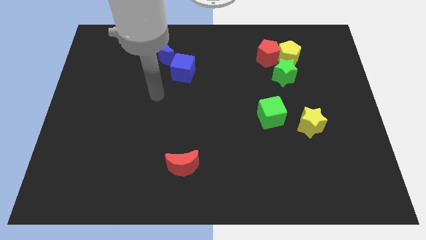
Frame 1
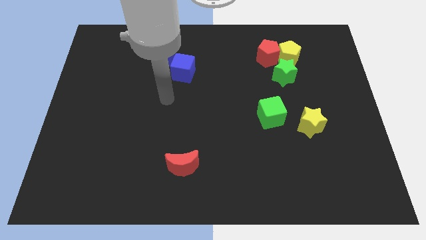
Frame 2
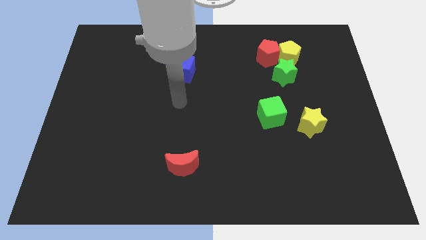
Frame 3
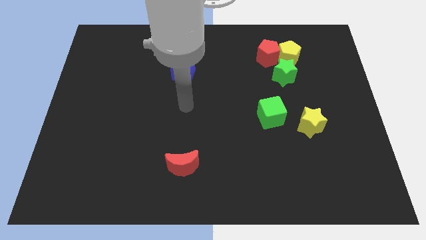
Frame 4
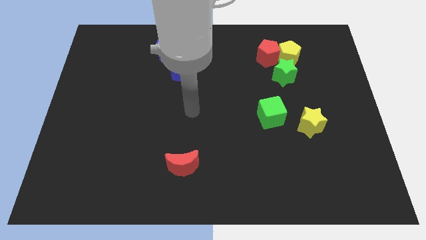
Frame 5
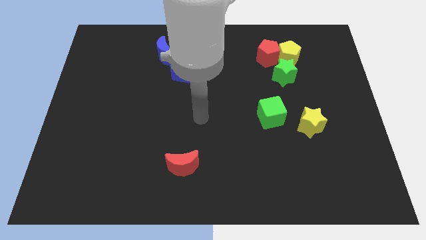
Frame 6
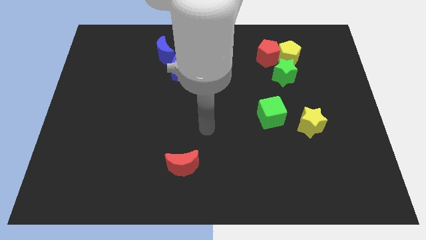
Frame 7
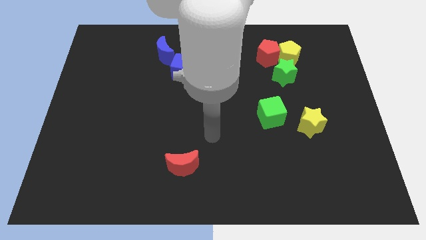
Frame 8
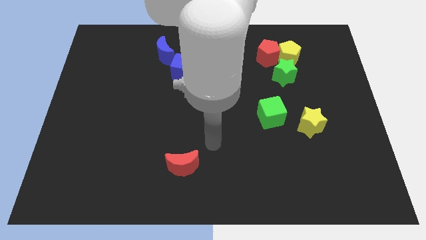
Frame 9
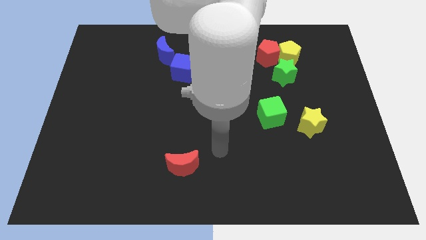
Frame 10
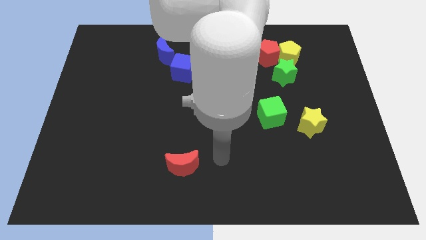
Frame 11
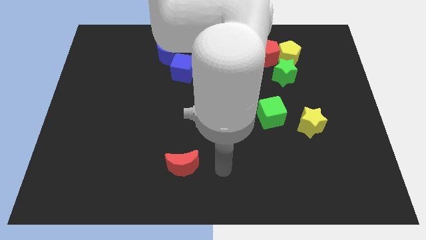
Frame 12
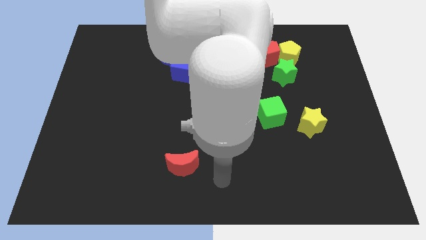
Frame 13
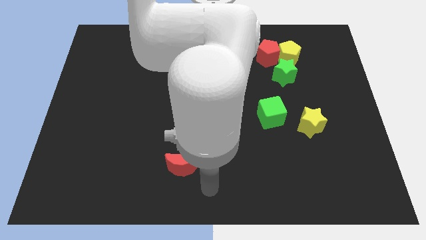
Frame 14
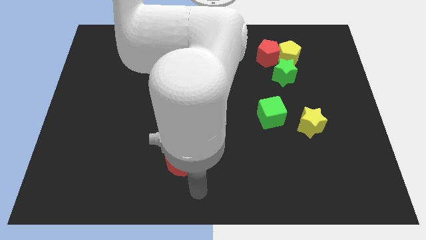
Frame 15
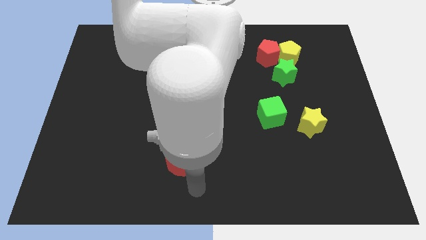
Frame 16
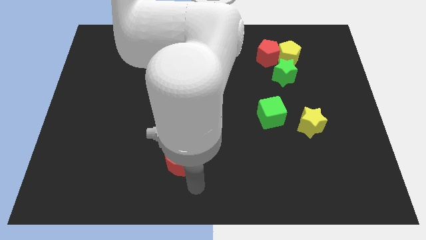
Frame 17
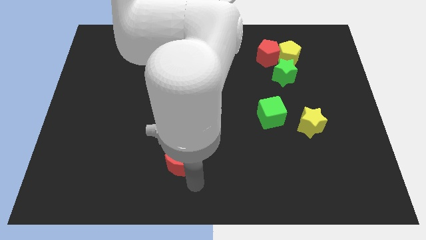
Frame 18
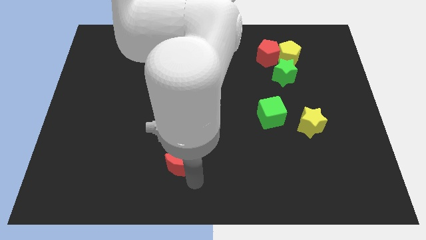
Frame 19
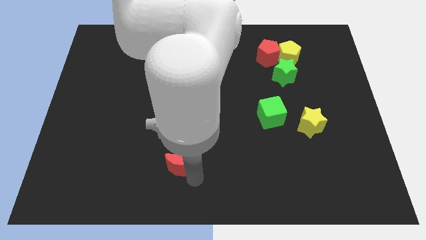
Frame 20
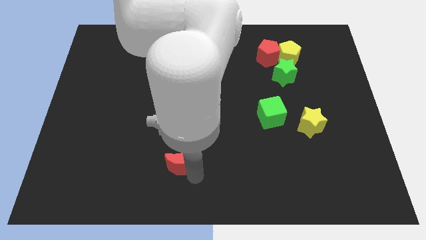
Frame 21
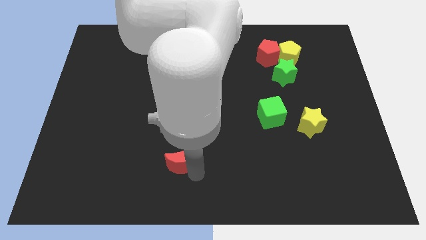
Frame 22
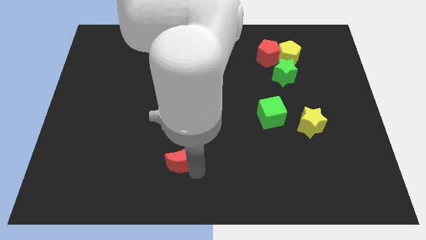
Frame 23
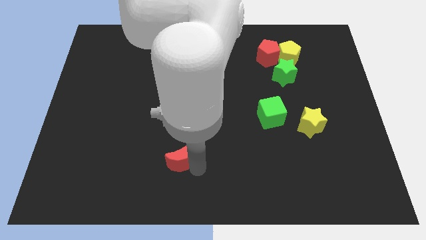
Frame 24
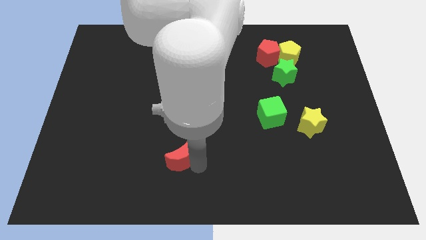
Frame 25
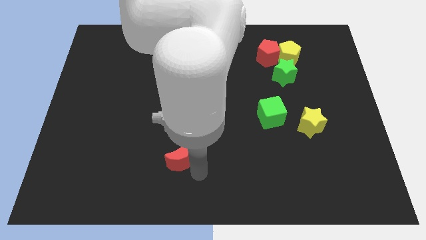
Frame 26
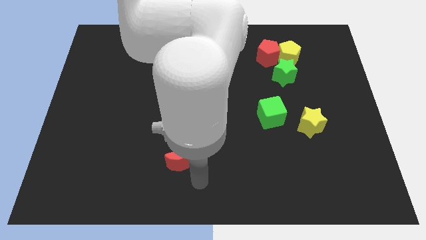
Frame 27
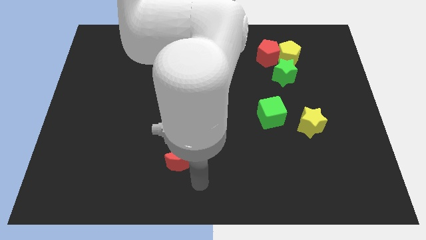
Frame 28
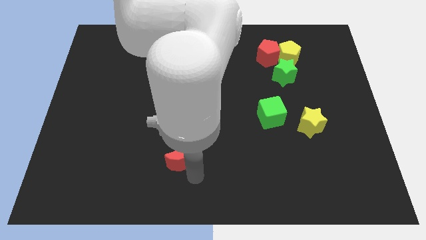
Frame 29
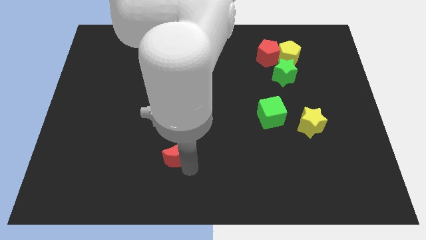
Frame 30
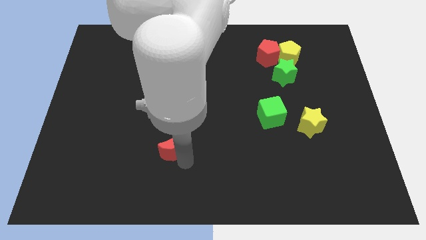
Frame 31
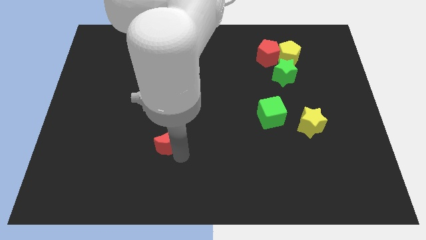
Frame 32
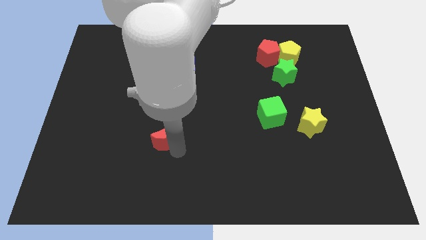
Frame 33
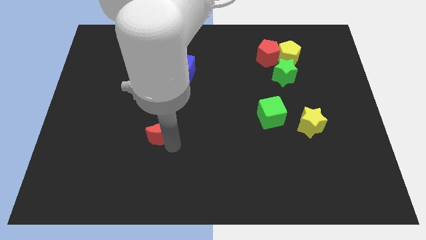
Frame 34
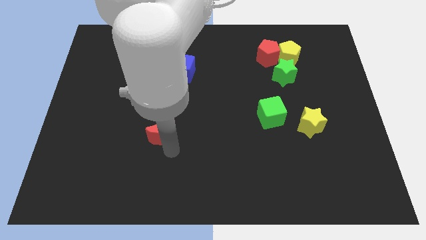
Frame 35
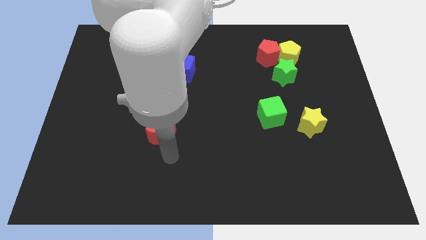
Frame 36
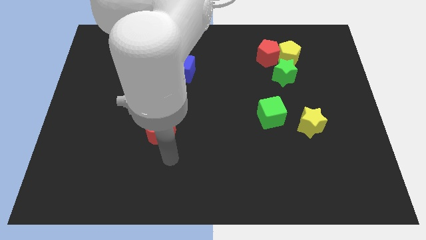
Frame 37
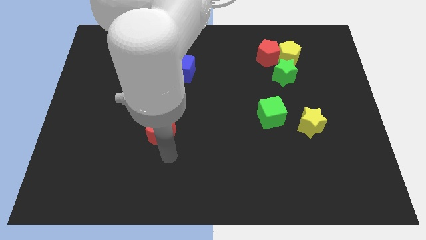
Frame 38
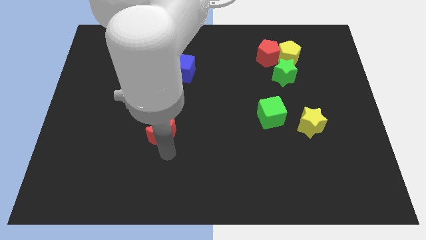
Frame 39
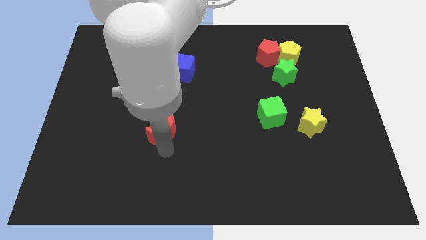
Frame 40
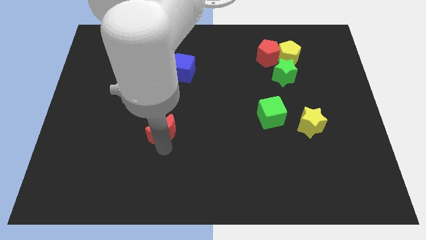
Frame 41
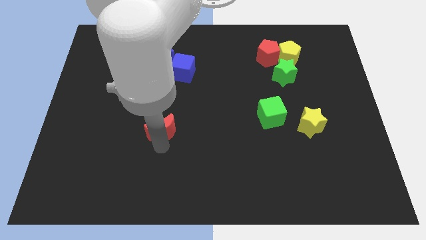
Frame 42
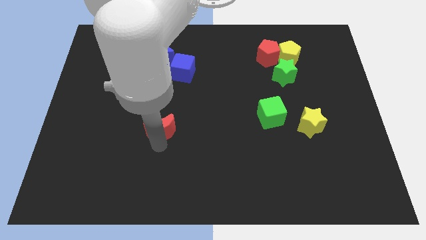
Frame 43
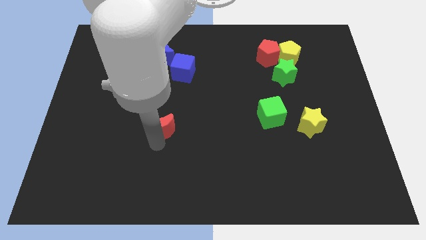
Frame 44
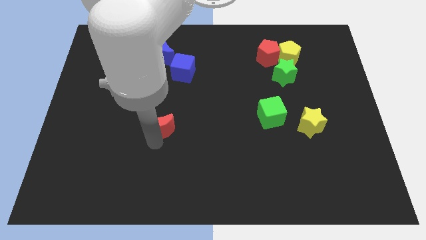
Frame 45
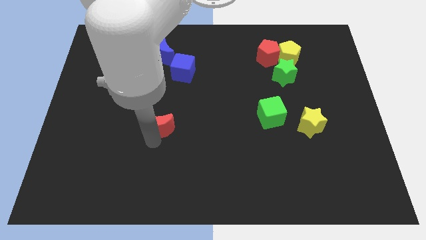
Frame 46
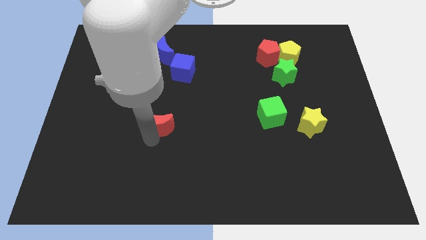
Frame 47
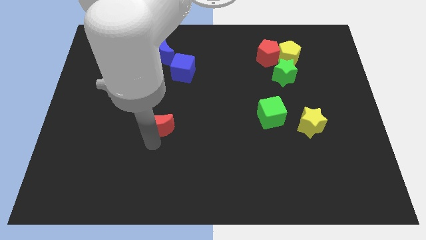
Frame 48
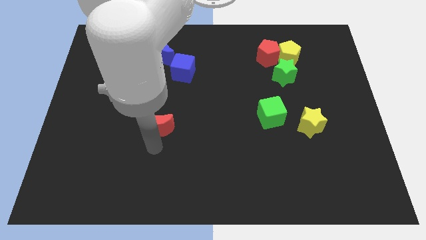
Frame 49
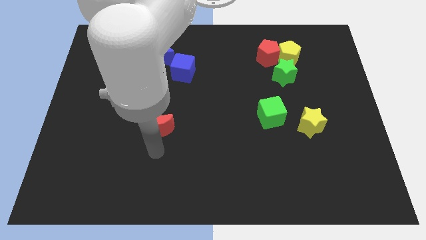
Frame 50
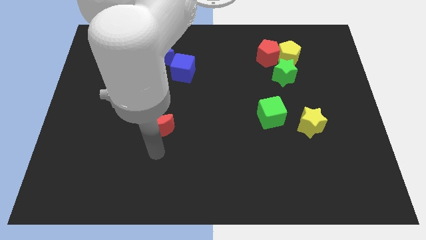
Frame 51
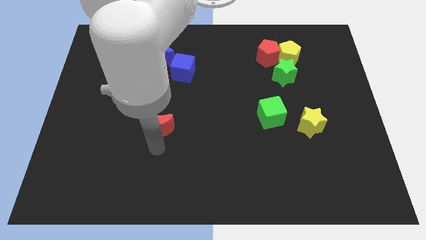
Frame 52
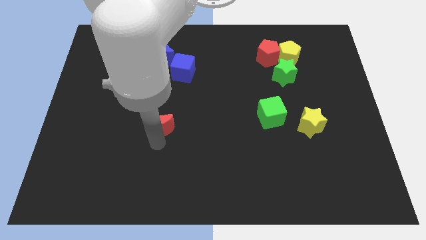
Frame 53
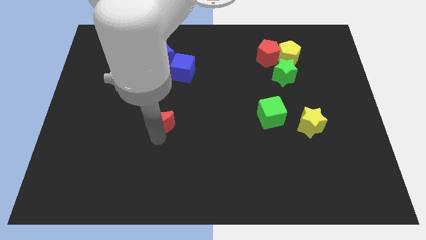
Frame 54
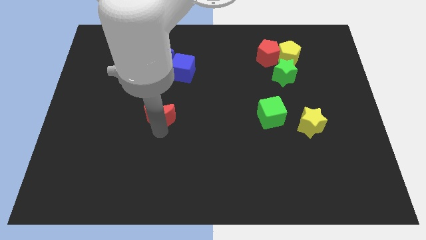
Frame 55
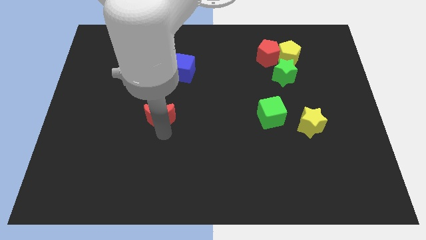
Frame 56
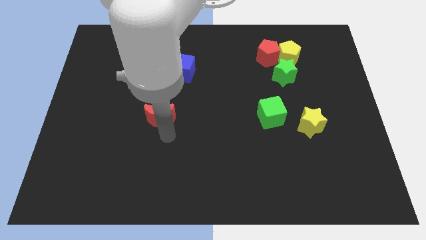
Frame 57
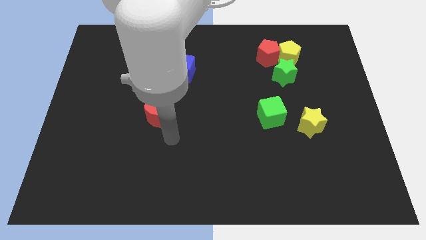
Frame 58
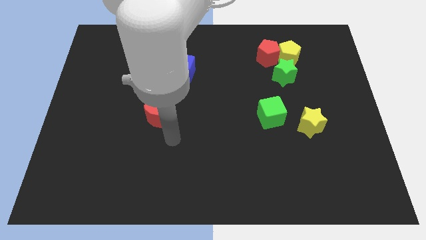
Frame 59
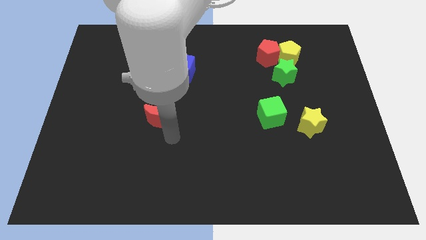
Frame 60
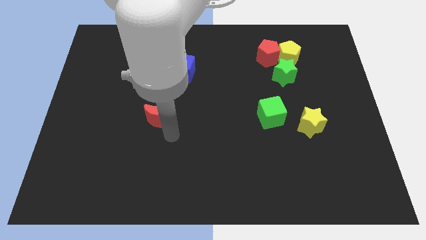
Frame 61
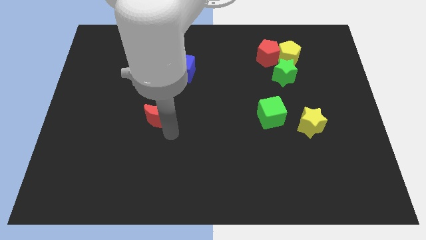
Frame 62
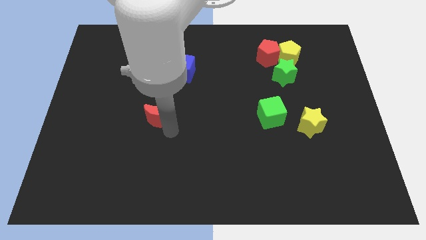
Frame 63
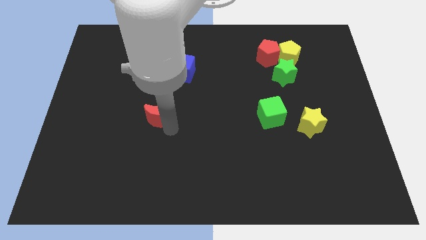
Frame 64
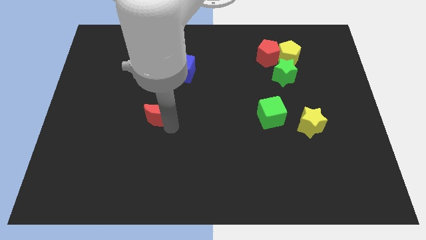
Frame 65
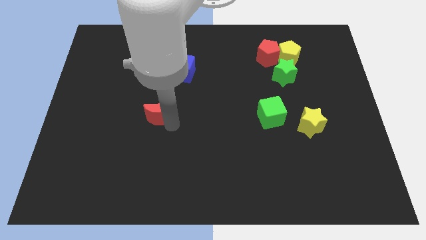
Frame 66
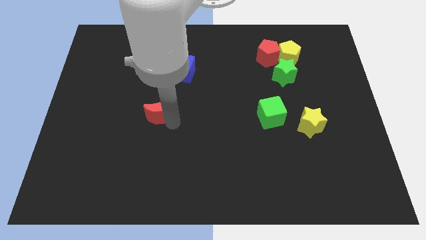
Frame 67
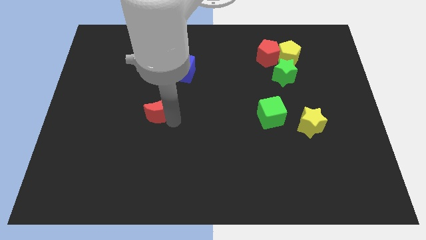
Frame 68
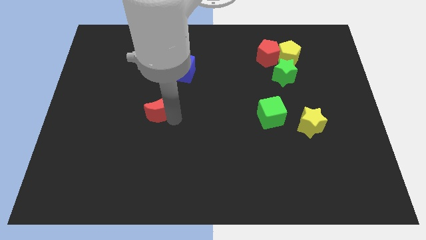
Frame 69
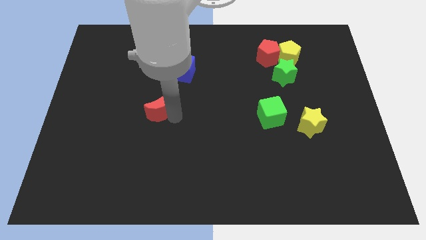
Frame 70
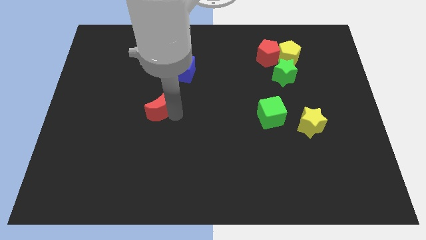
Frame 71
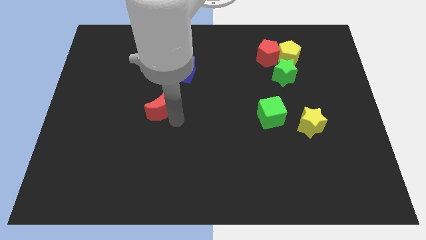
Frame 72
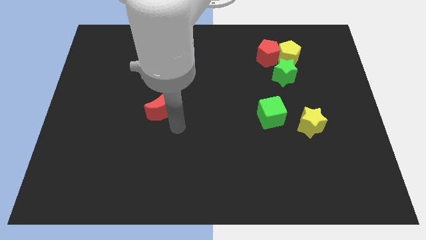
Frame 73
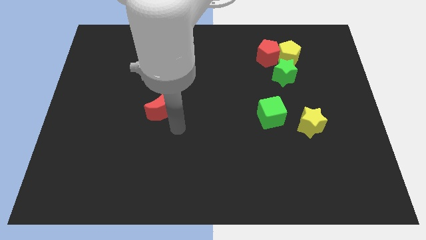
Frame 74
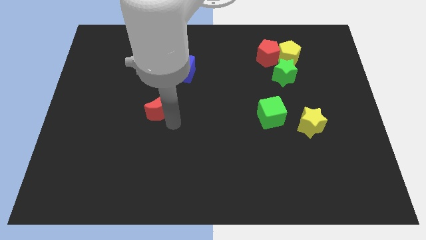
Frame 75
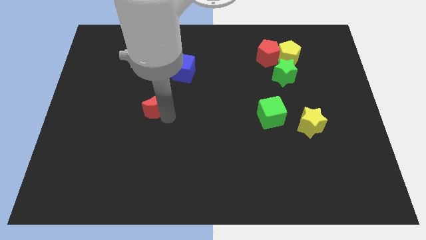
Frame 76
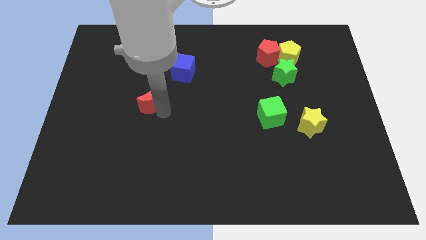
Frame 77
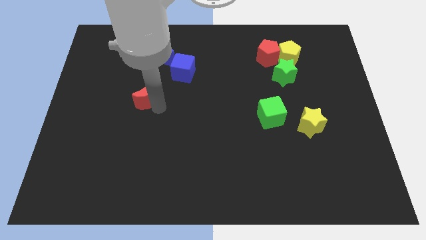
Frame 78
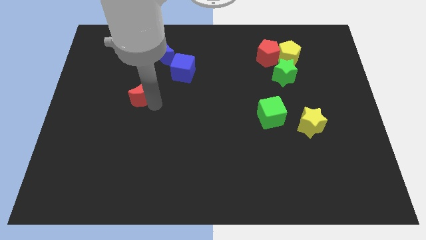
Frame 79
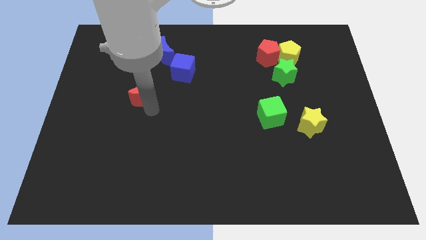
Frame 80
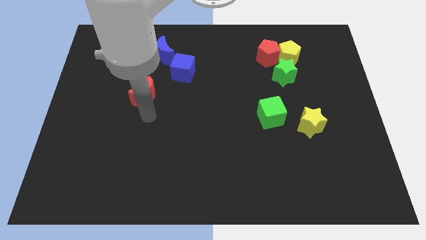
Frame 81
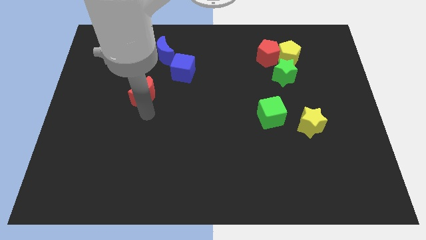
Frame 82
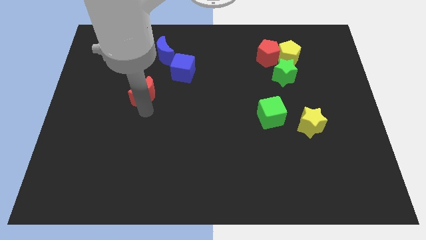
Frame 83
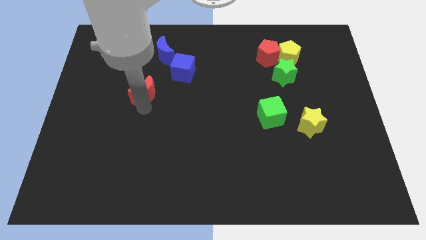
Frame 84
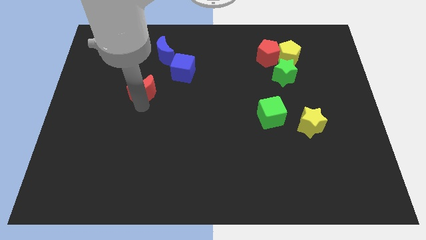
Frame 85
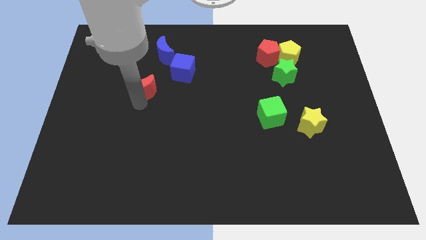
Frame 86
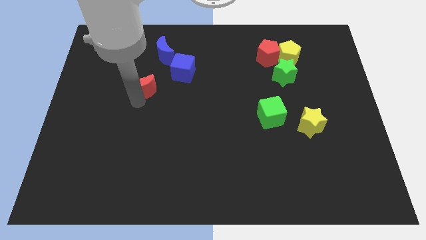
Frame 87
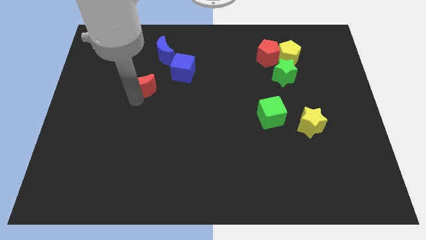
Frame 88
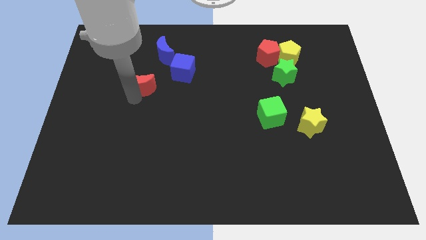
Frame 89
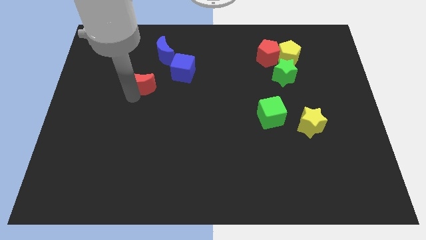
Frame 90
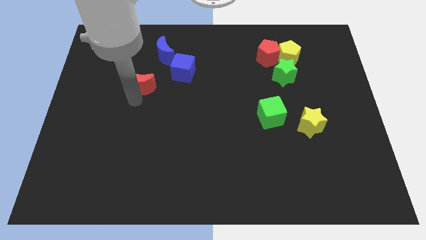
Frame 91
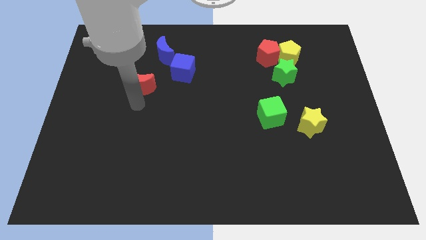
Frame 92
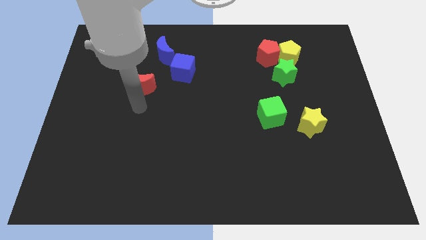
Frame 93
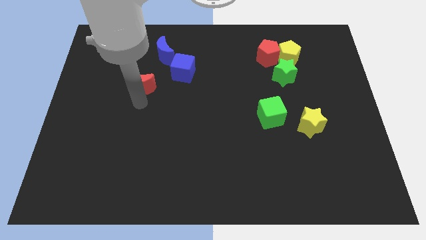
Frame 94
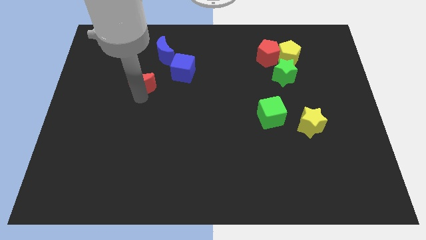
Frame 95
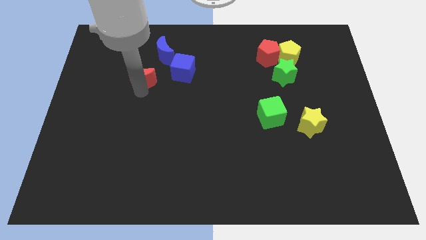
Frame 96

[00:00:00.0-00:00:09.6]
put the red moon to the bottom left of the blue moon
